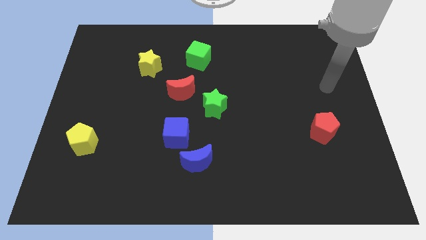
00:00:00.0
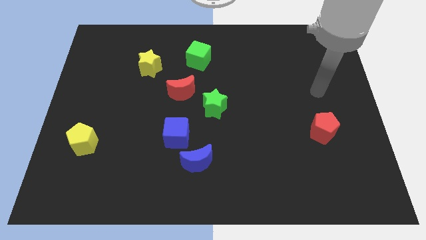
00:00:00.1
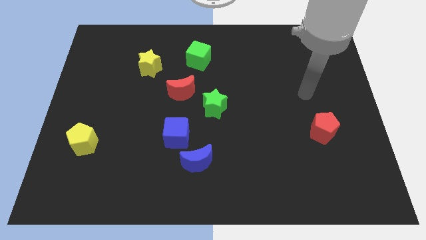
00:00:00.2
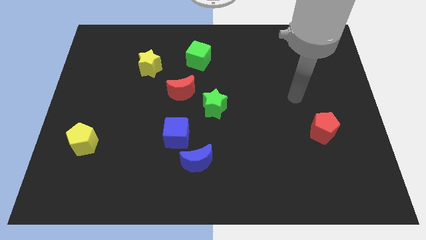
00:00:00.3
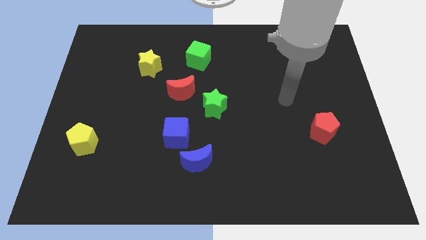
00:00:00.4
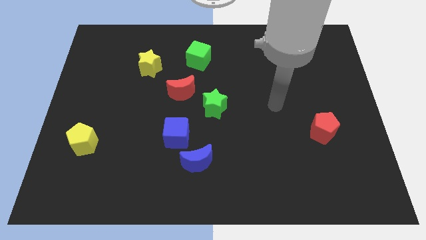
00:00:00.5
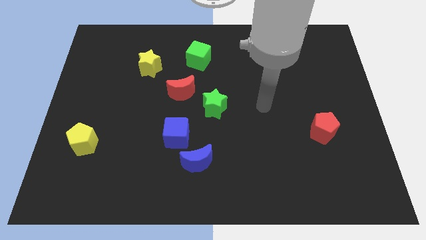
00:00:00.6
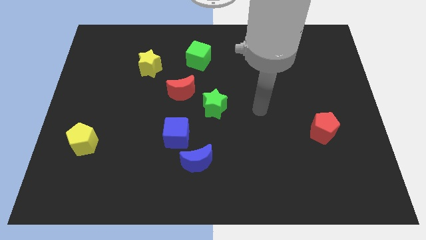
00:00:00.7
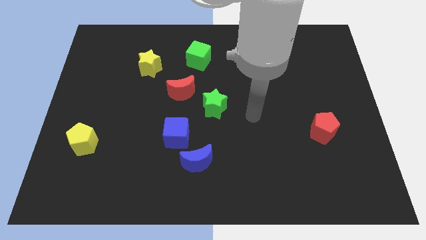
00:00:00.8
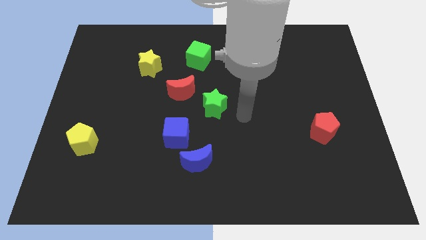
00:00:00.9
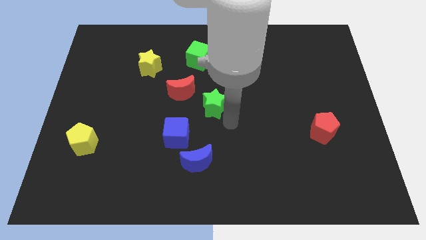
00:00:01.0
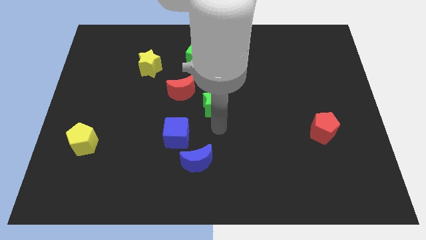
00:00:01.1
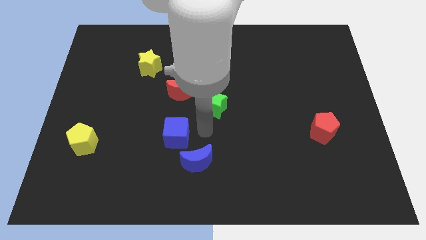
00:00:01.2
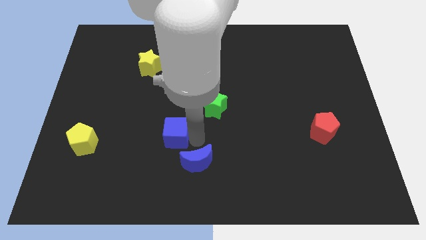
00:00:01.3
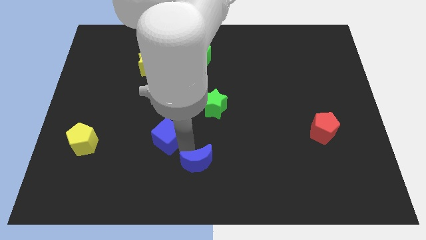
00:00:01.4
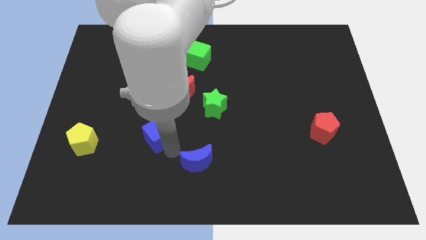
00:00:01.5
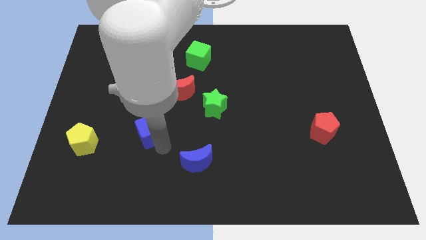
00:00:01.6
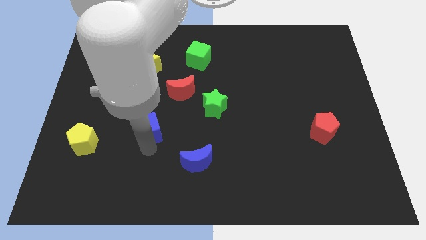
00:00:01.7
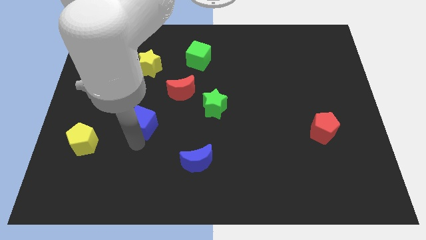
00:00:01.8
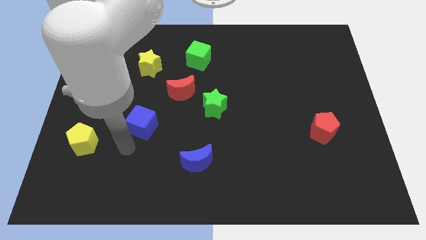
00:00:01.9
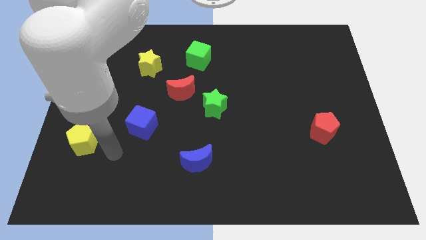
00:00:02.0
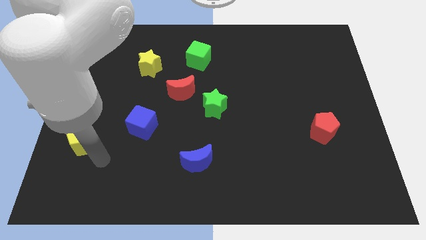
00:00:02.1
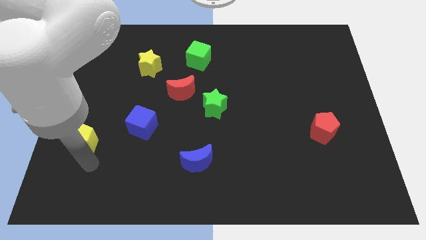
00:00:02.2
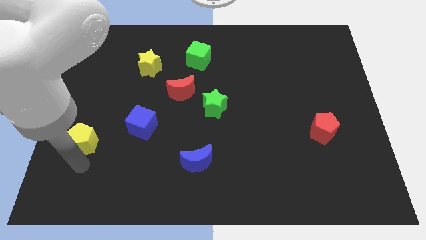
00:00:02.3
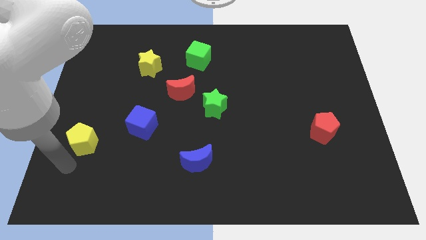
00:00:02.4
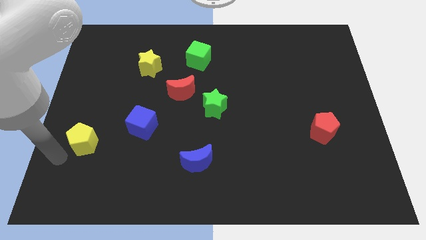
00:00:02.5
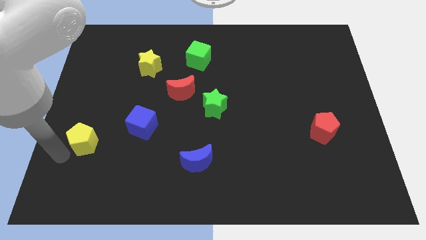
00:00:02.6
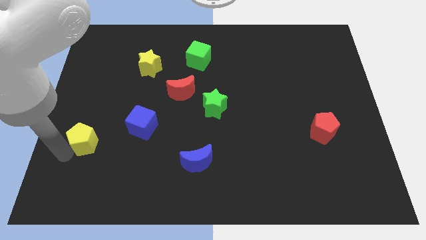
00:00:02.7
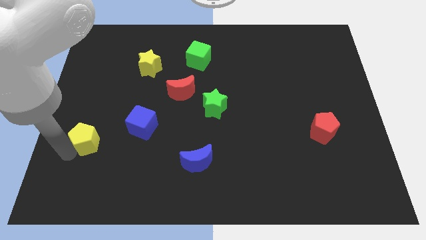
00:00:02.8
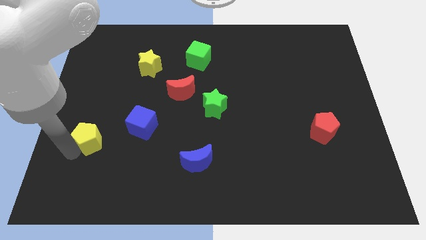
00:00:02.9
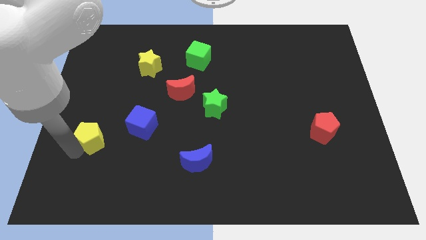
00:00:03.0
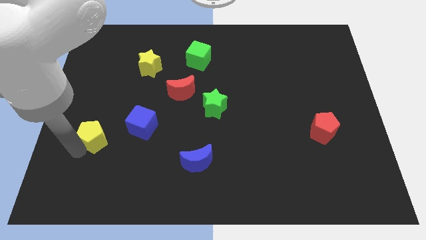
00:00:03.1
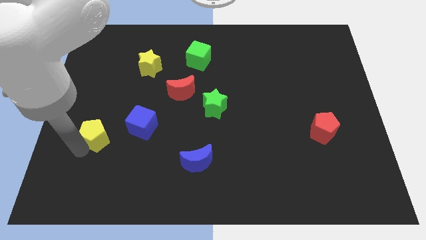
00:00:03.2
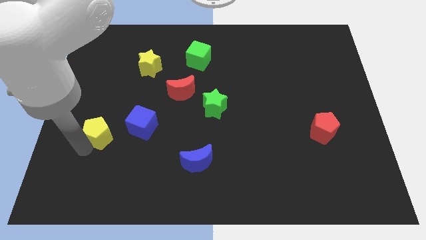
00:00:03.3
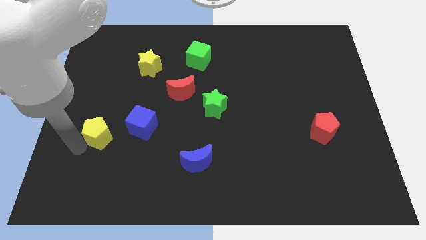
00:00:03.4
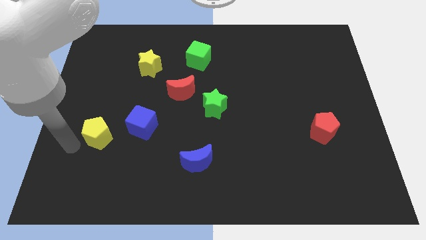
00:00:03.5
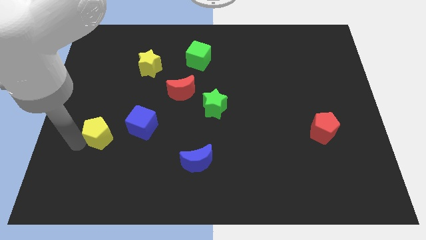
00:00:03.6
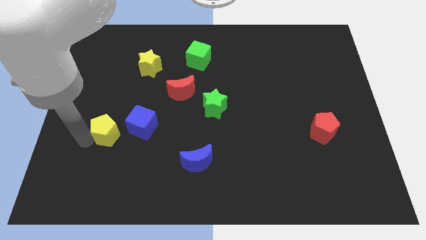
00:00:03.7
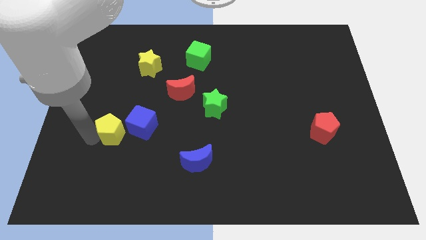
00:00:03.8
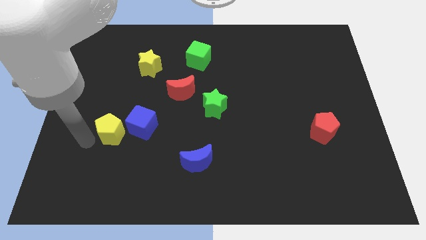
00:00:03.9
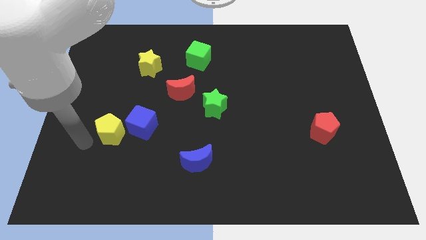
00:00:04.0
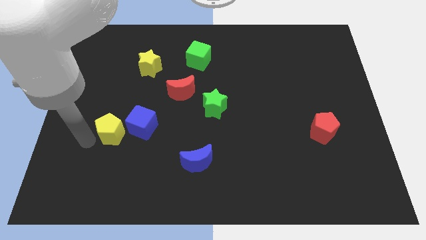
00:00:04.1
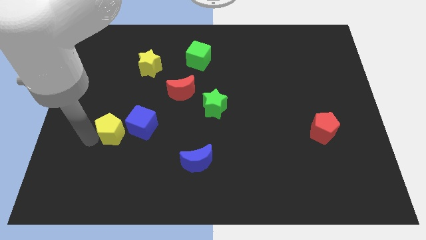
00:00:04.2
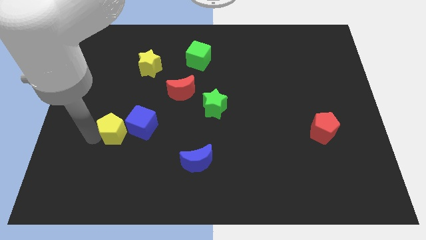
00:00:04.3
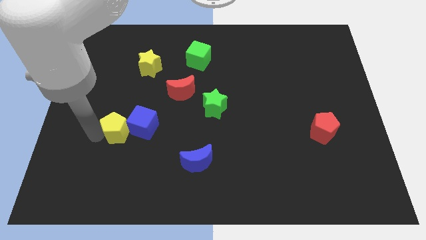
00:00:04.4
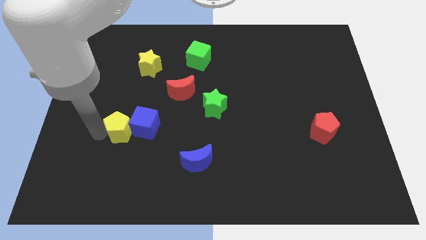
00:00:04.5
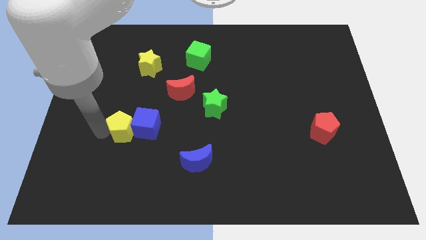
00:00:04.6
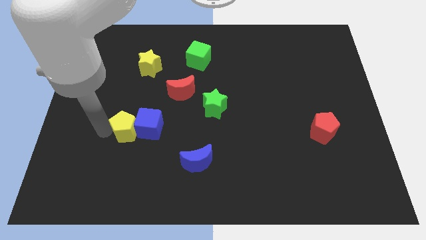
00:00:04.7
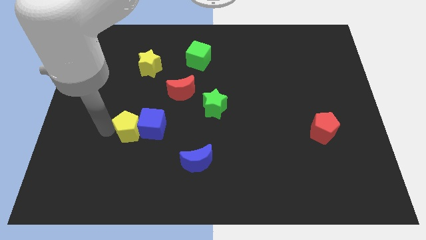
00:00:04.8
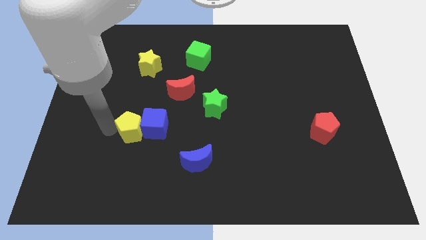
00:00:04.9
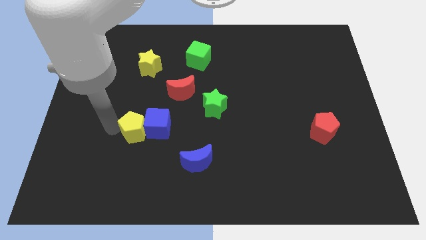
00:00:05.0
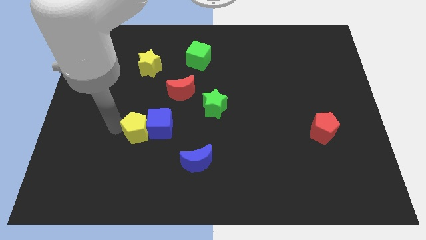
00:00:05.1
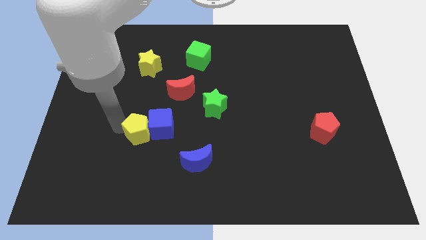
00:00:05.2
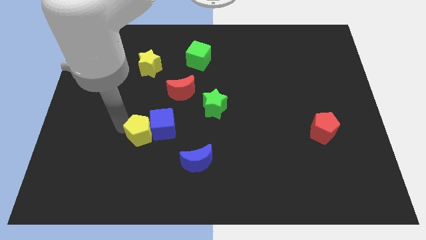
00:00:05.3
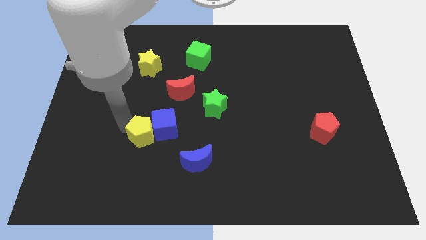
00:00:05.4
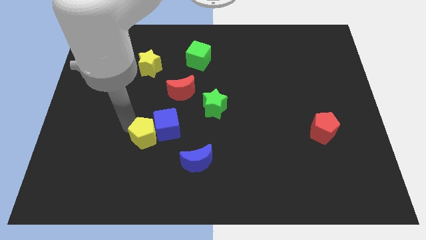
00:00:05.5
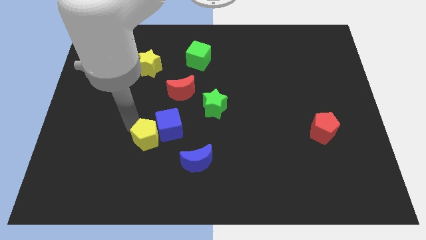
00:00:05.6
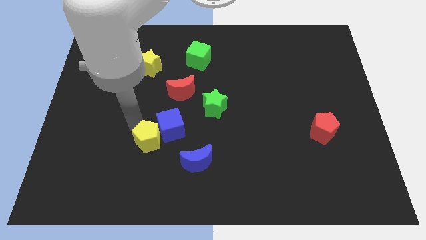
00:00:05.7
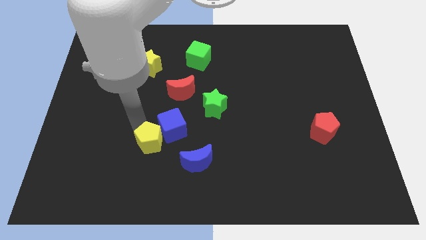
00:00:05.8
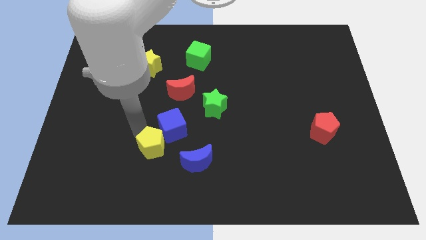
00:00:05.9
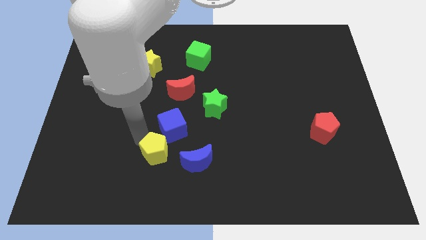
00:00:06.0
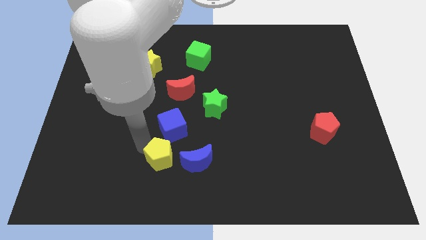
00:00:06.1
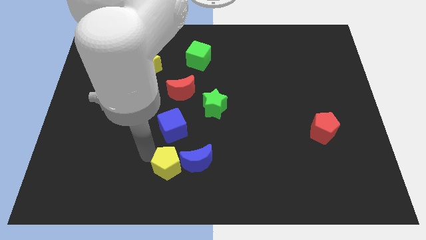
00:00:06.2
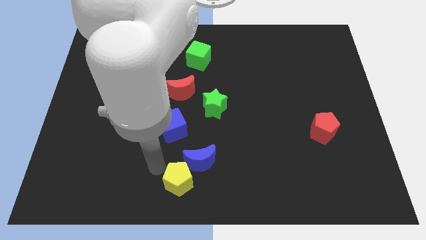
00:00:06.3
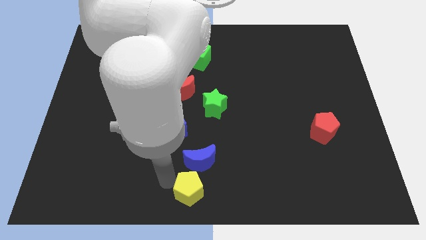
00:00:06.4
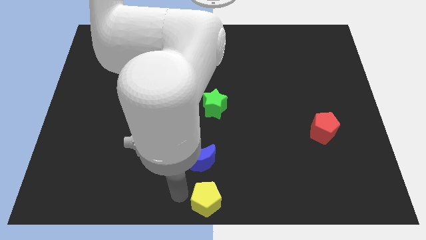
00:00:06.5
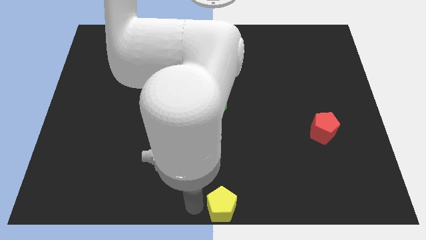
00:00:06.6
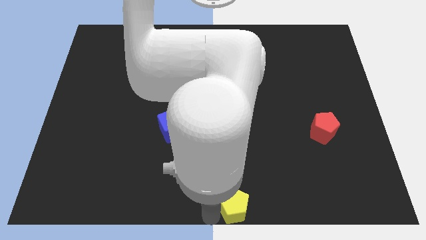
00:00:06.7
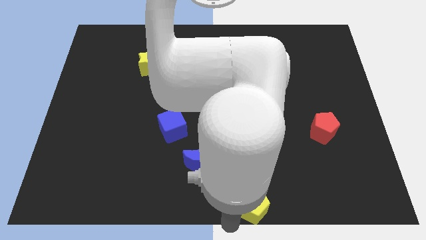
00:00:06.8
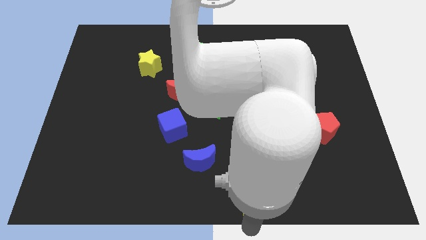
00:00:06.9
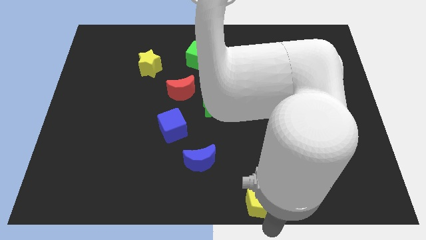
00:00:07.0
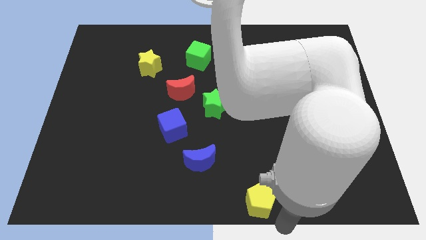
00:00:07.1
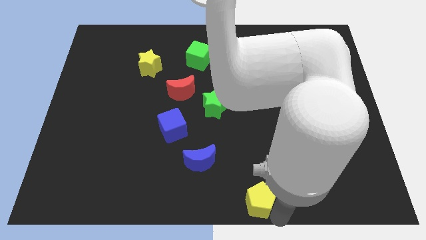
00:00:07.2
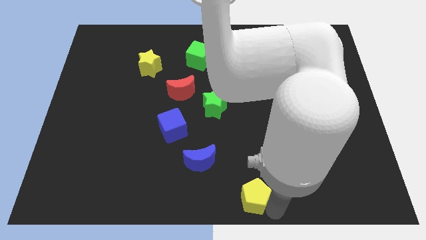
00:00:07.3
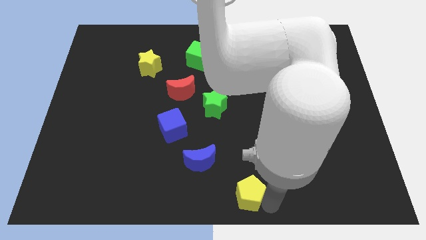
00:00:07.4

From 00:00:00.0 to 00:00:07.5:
move the yellow pentagon right

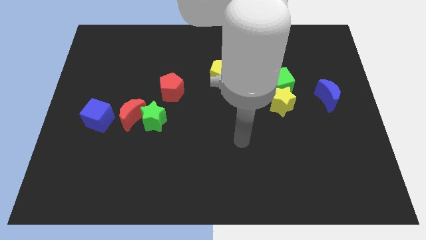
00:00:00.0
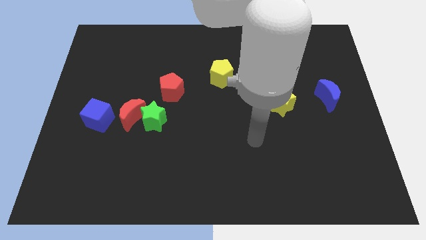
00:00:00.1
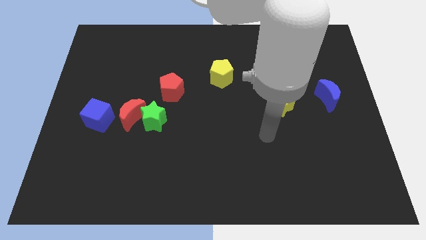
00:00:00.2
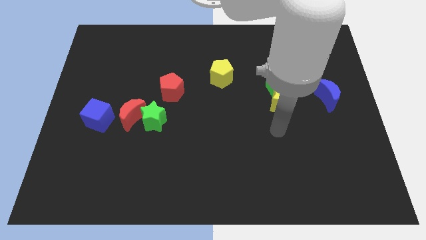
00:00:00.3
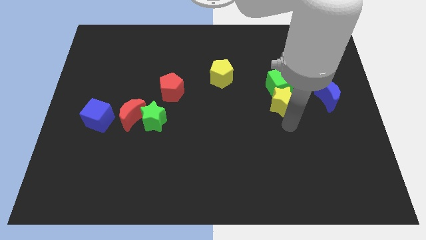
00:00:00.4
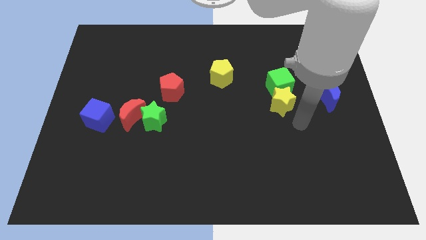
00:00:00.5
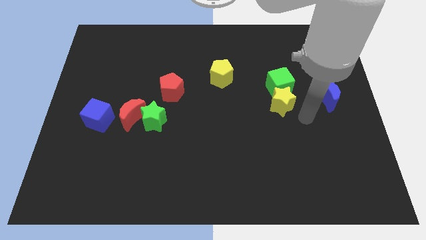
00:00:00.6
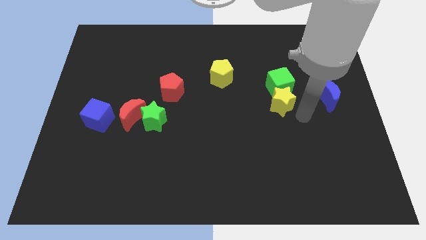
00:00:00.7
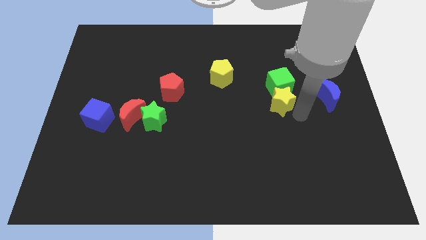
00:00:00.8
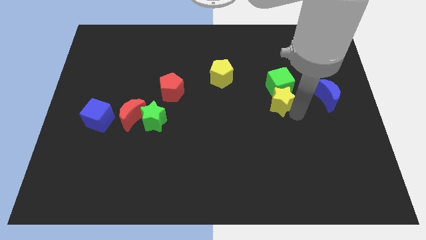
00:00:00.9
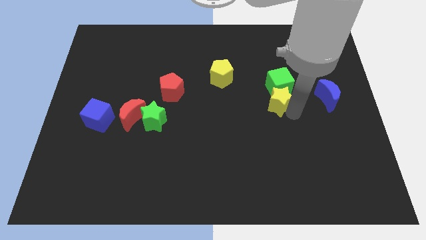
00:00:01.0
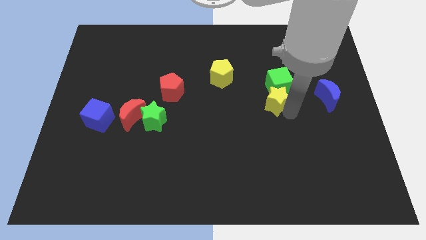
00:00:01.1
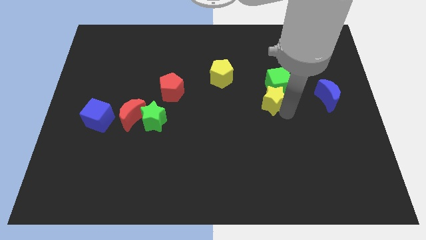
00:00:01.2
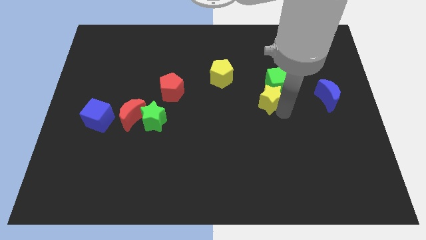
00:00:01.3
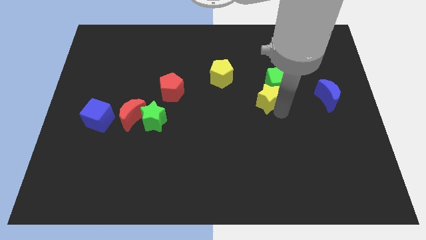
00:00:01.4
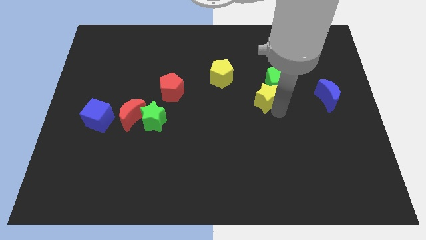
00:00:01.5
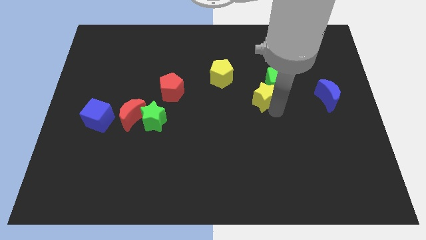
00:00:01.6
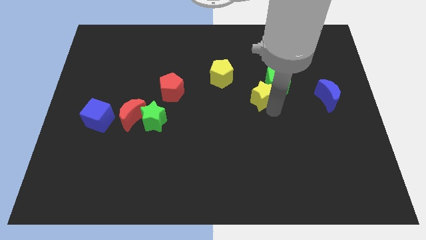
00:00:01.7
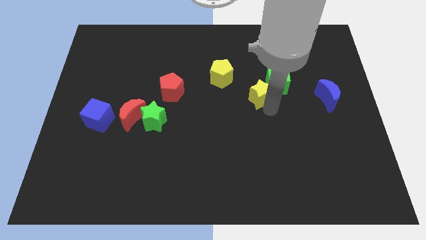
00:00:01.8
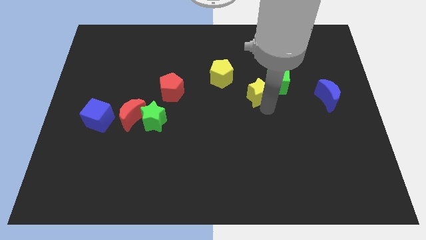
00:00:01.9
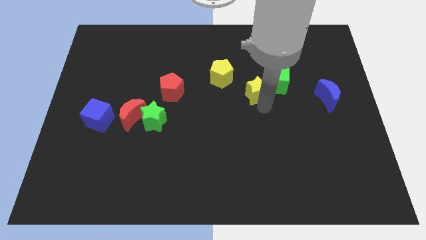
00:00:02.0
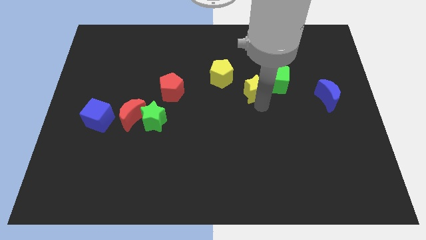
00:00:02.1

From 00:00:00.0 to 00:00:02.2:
push the yellow star slightly diagonally upwards and to the left
